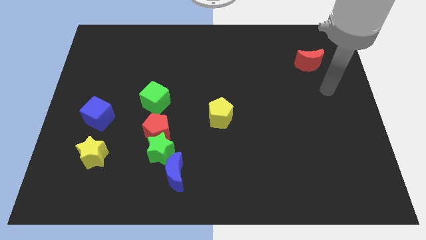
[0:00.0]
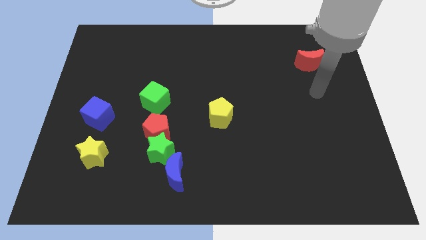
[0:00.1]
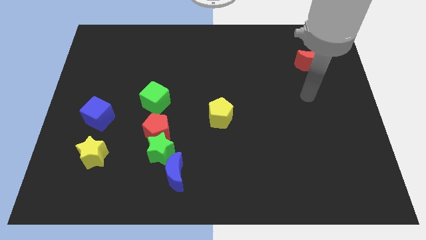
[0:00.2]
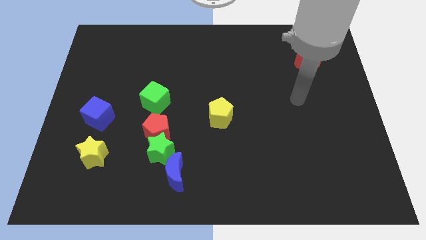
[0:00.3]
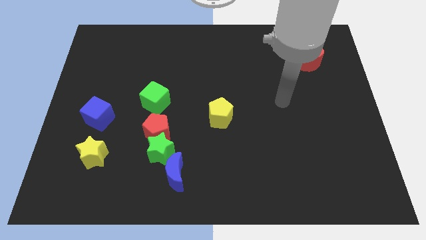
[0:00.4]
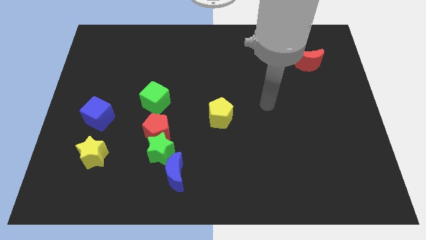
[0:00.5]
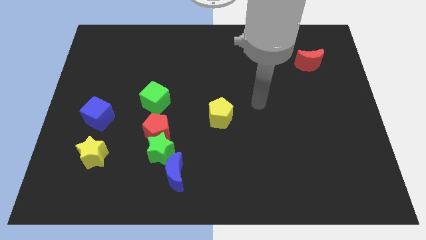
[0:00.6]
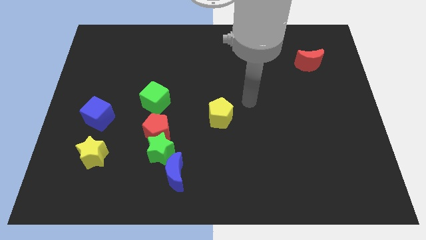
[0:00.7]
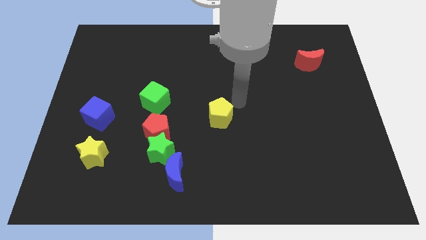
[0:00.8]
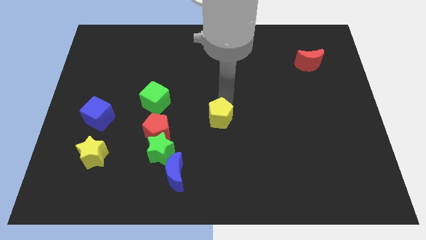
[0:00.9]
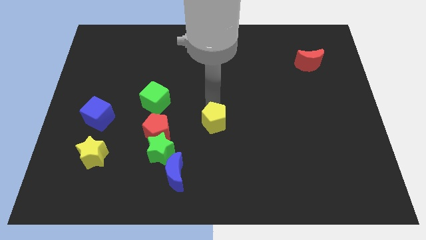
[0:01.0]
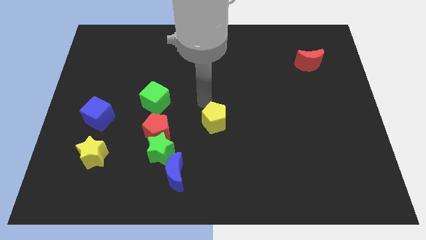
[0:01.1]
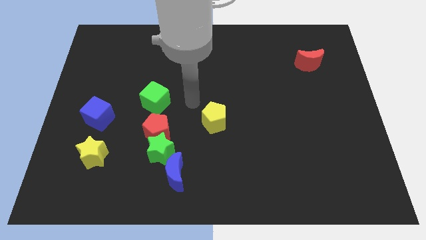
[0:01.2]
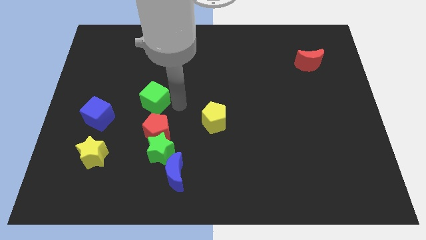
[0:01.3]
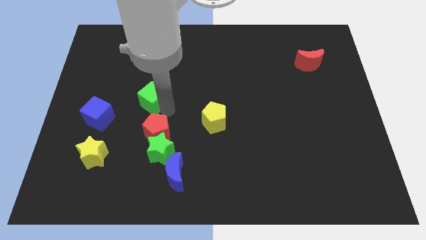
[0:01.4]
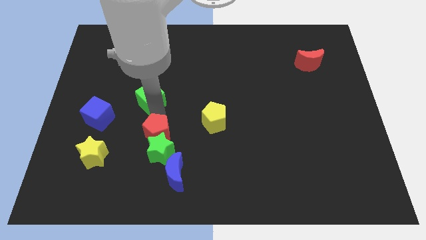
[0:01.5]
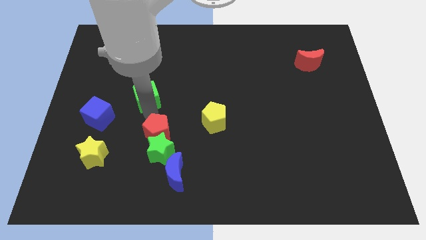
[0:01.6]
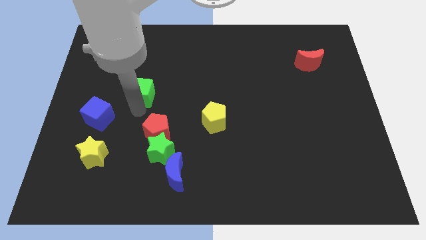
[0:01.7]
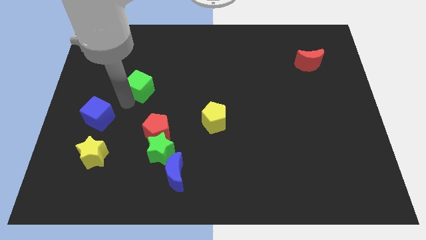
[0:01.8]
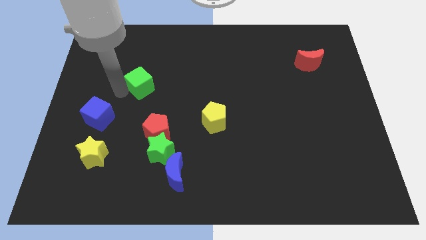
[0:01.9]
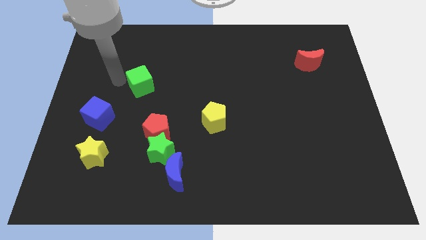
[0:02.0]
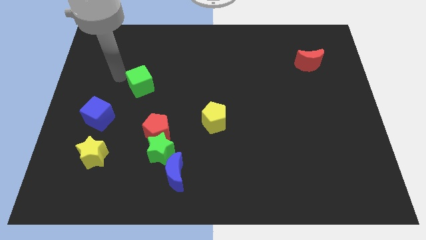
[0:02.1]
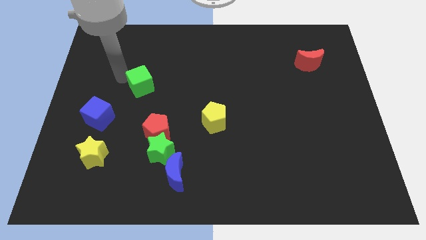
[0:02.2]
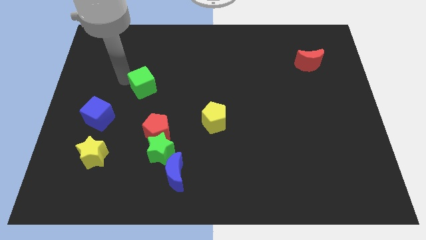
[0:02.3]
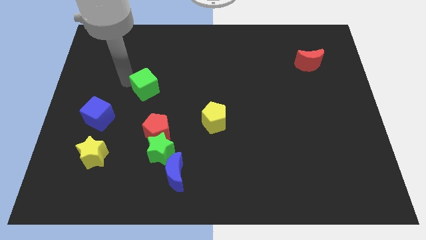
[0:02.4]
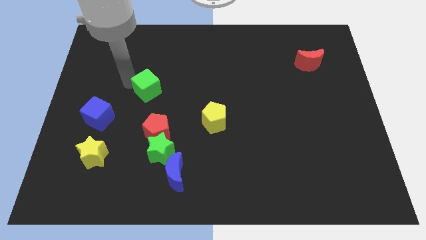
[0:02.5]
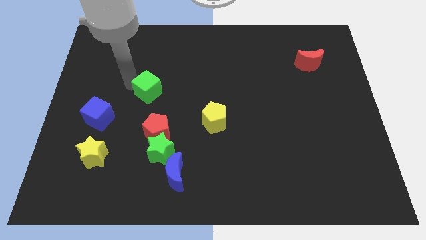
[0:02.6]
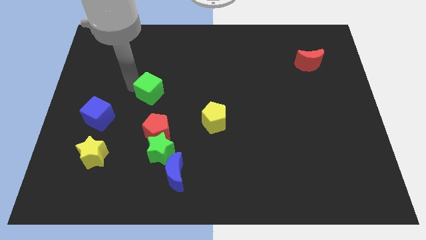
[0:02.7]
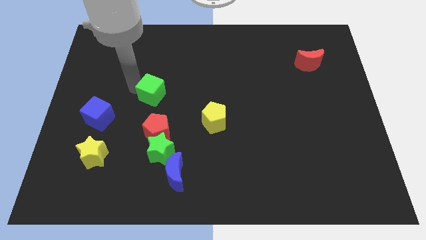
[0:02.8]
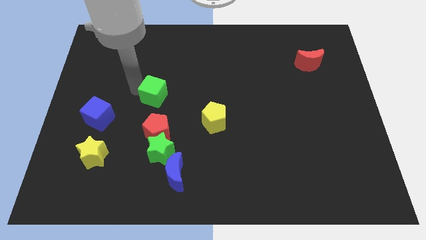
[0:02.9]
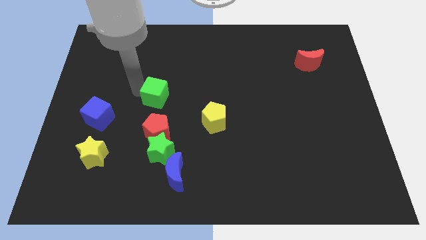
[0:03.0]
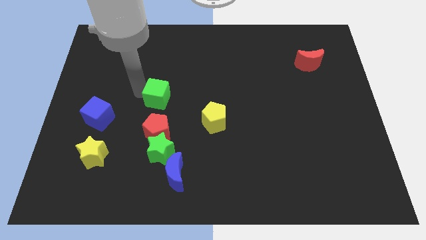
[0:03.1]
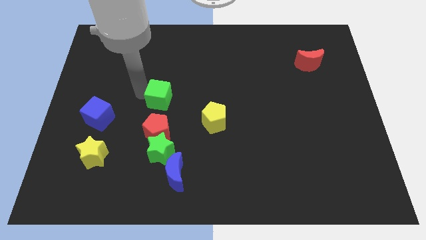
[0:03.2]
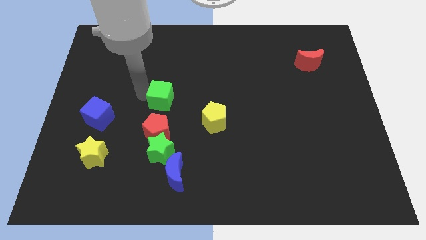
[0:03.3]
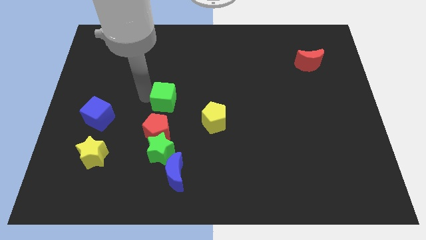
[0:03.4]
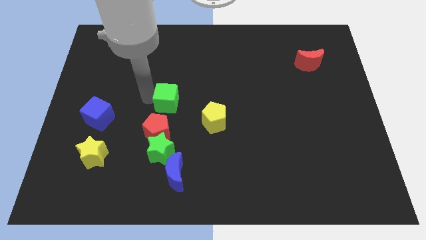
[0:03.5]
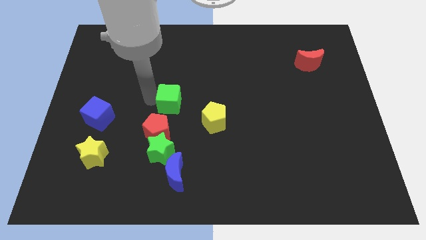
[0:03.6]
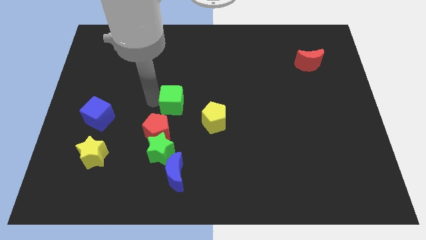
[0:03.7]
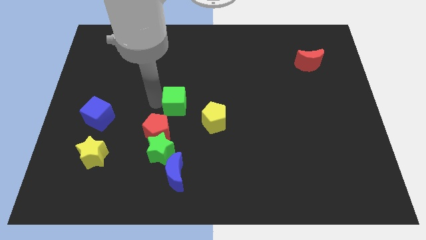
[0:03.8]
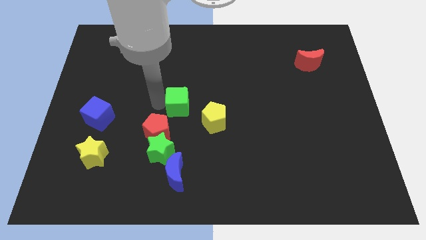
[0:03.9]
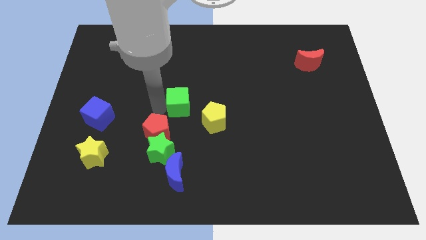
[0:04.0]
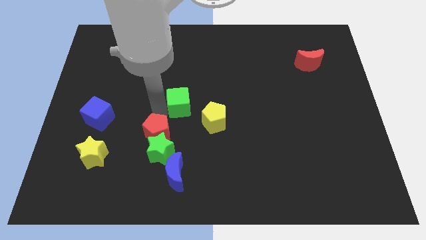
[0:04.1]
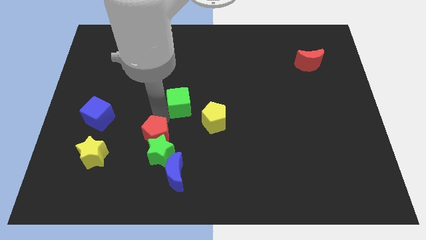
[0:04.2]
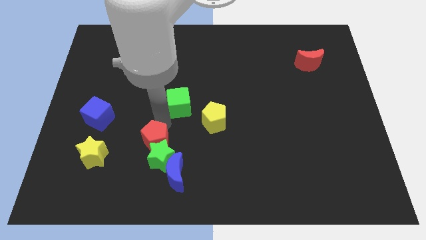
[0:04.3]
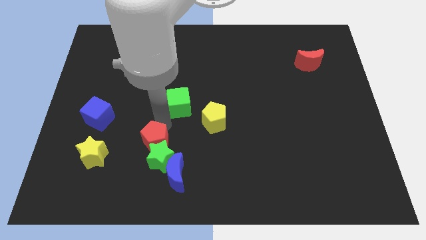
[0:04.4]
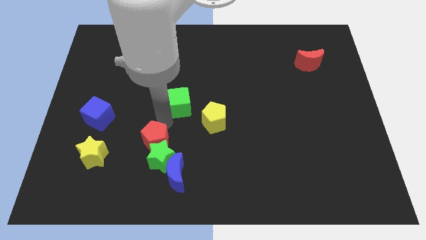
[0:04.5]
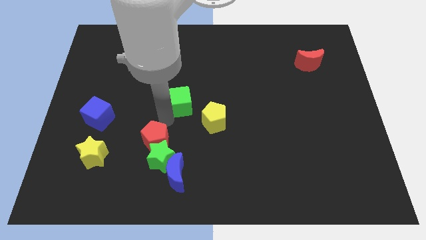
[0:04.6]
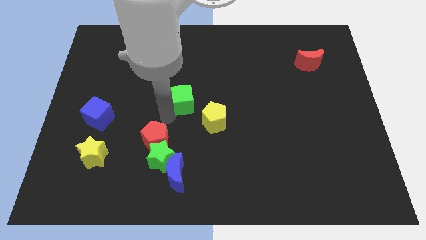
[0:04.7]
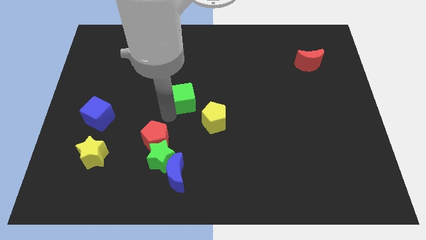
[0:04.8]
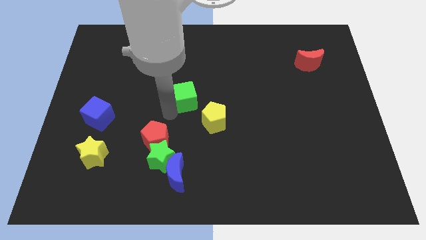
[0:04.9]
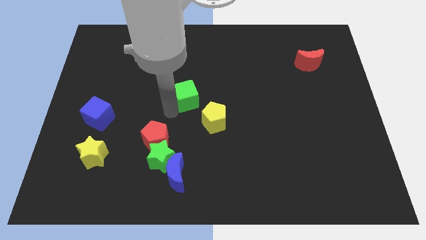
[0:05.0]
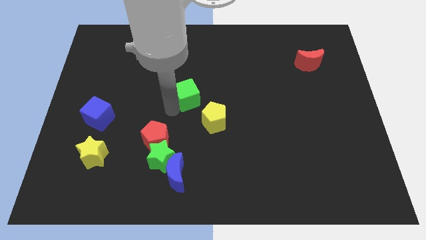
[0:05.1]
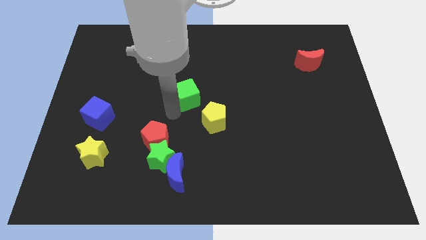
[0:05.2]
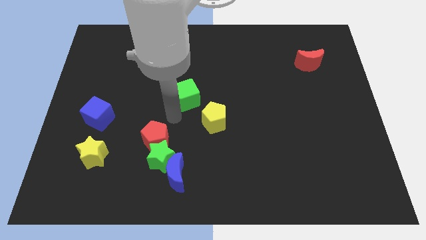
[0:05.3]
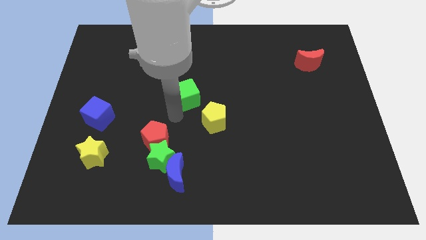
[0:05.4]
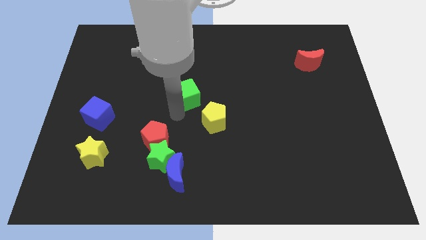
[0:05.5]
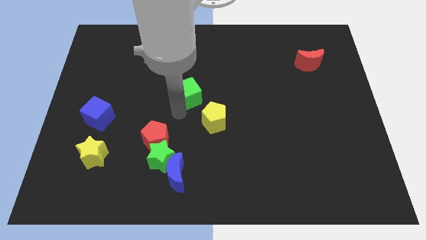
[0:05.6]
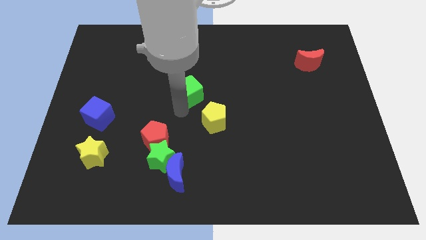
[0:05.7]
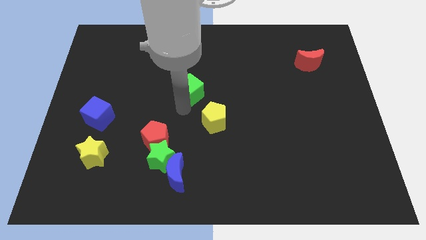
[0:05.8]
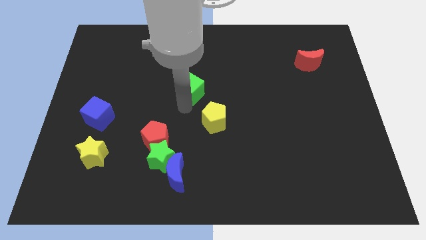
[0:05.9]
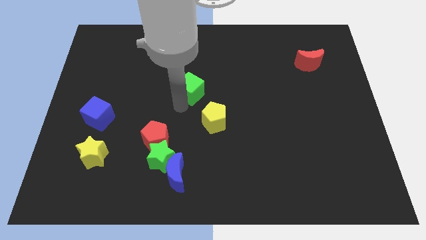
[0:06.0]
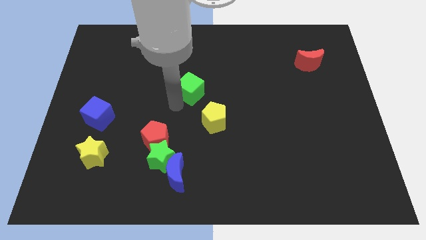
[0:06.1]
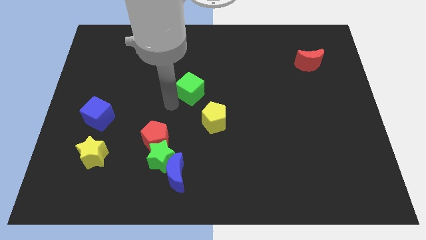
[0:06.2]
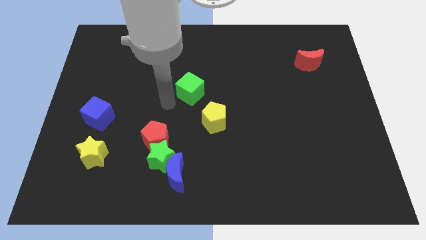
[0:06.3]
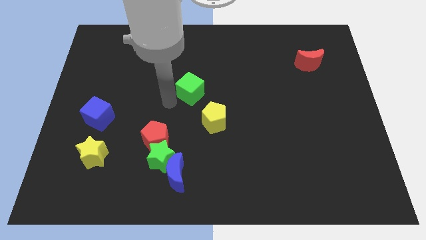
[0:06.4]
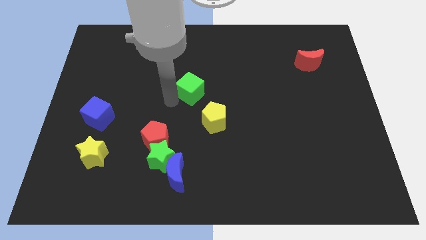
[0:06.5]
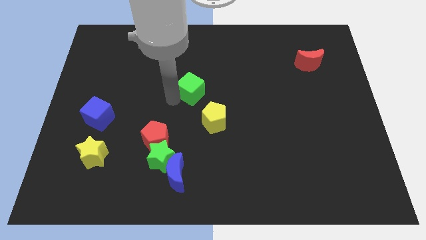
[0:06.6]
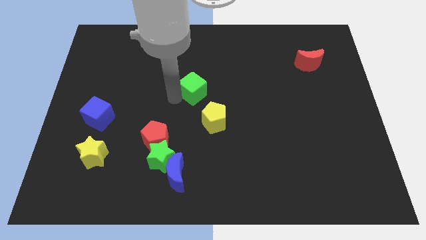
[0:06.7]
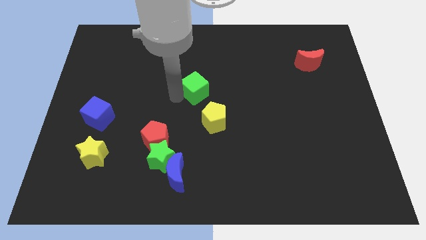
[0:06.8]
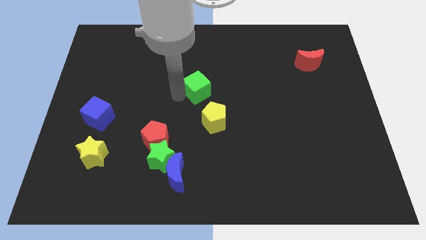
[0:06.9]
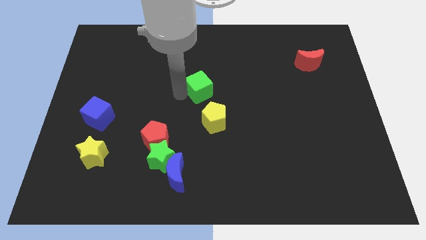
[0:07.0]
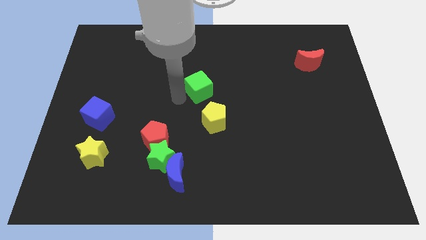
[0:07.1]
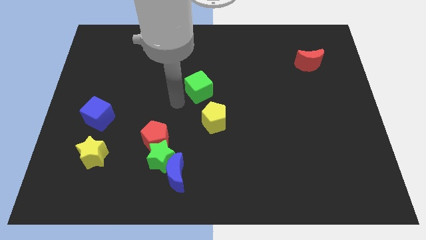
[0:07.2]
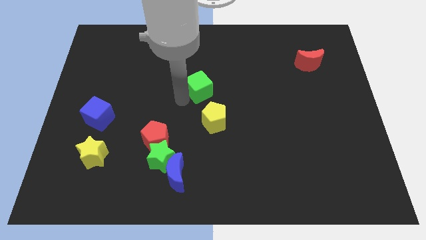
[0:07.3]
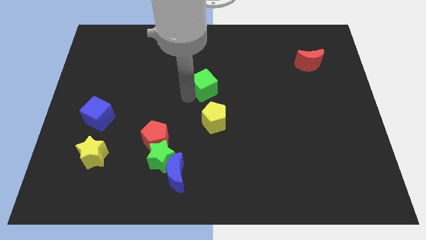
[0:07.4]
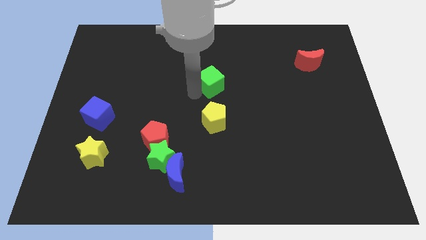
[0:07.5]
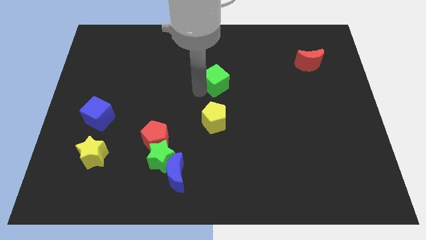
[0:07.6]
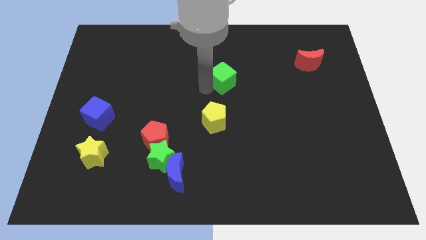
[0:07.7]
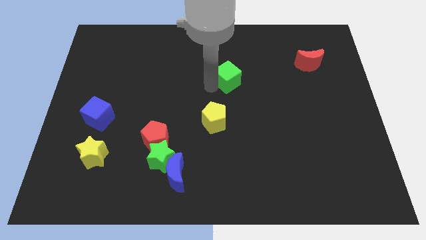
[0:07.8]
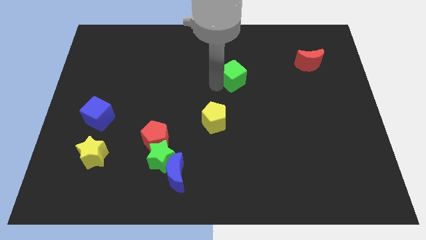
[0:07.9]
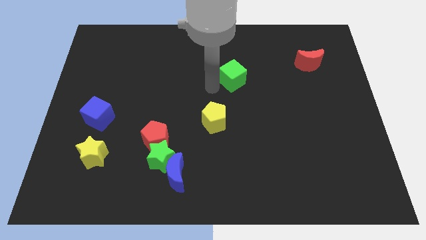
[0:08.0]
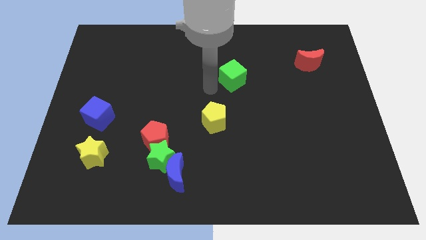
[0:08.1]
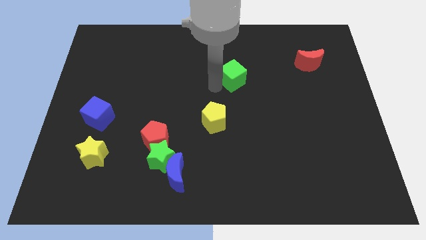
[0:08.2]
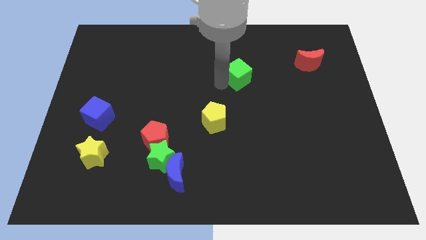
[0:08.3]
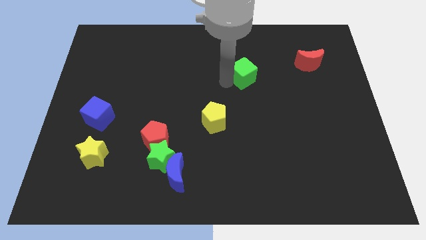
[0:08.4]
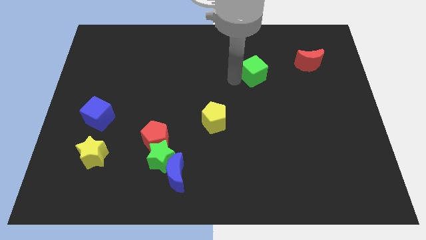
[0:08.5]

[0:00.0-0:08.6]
put the green cube just left of the red moon
